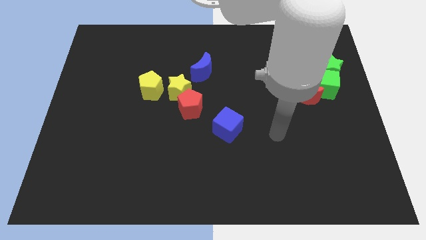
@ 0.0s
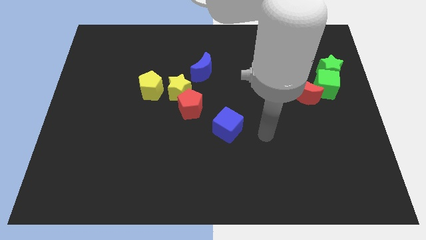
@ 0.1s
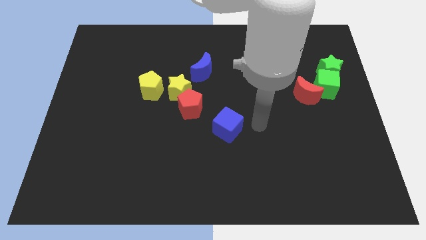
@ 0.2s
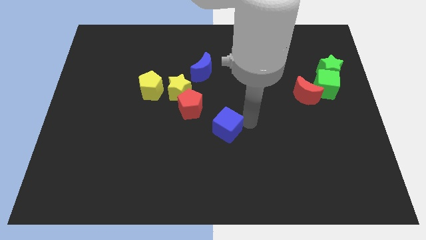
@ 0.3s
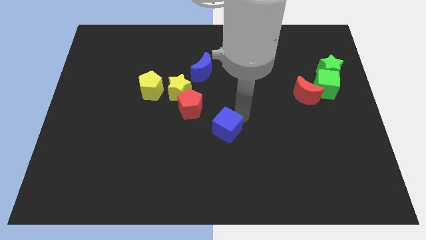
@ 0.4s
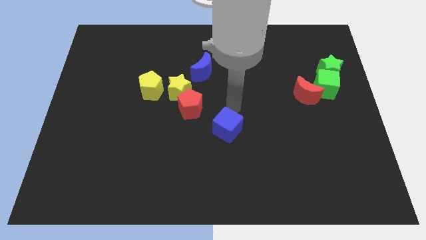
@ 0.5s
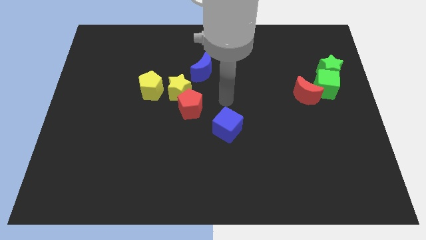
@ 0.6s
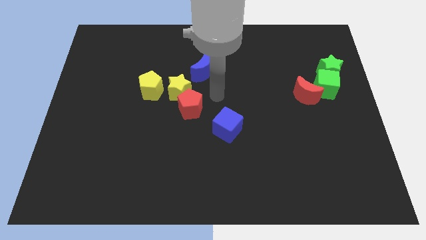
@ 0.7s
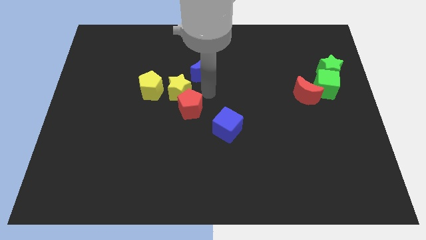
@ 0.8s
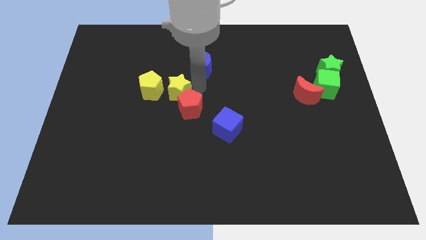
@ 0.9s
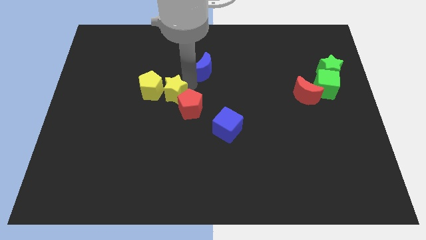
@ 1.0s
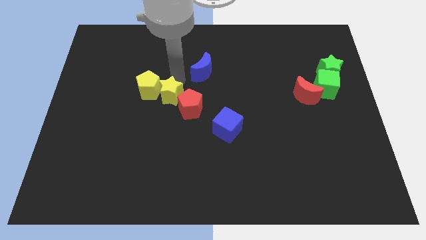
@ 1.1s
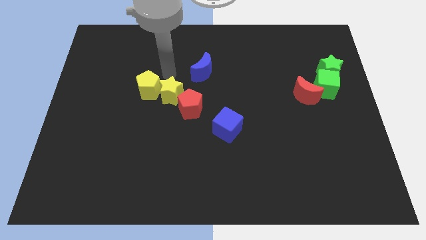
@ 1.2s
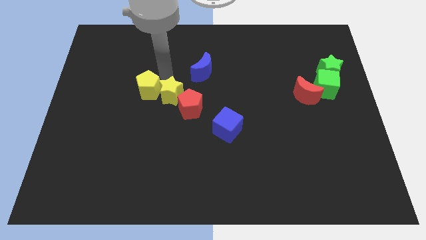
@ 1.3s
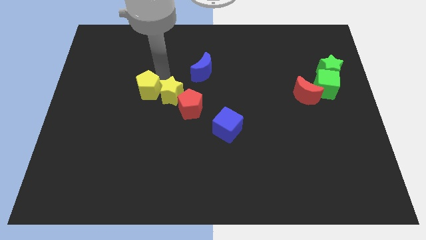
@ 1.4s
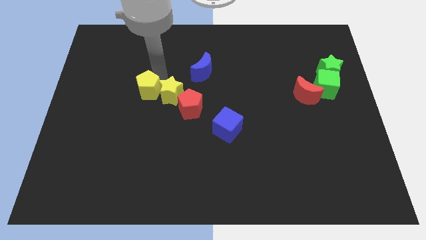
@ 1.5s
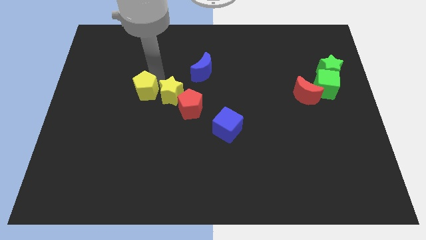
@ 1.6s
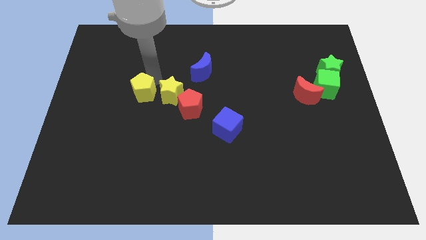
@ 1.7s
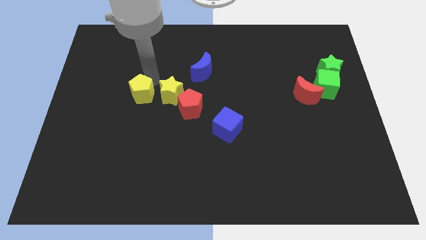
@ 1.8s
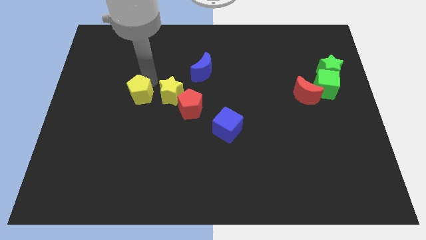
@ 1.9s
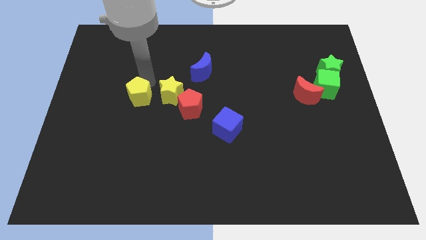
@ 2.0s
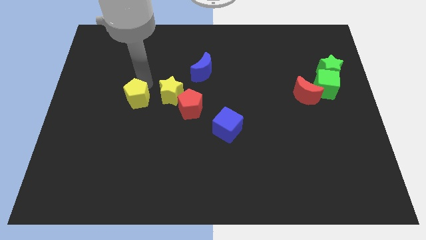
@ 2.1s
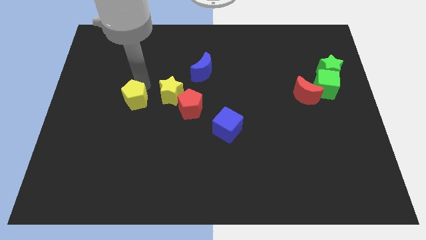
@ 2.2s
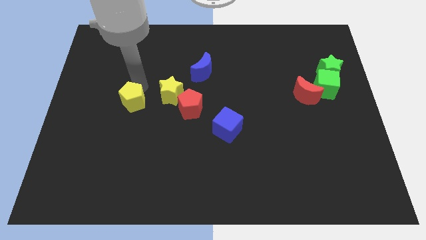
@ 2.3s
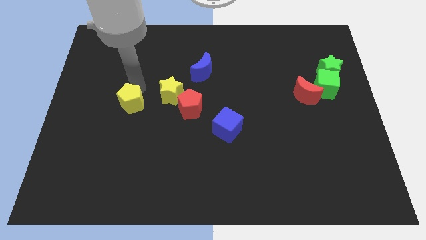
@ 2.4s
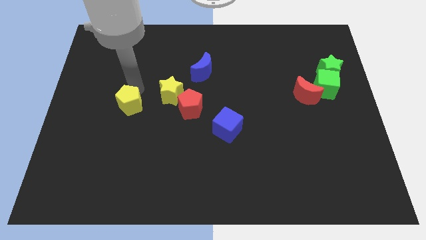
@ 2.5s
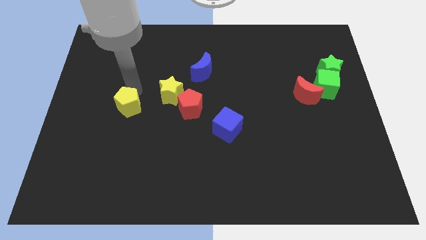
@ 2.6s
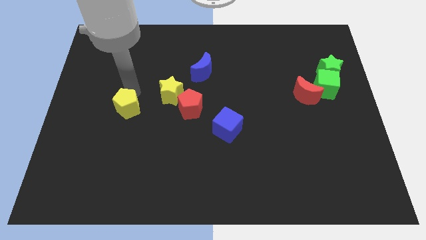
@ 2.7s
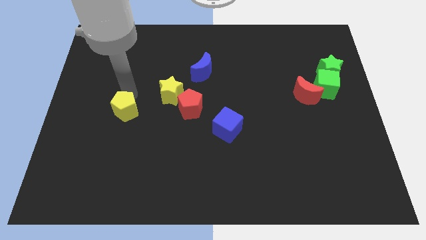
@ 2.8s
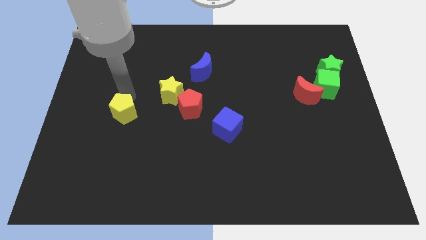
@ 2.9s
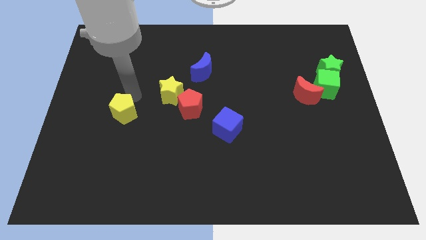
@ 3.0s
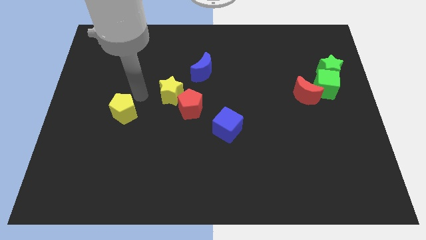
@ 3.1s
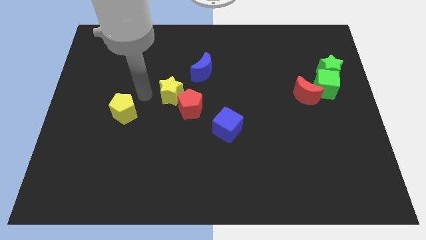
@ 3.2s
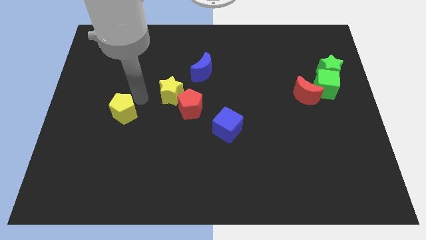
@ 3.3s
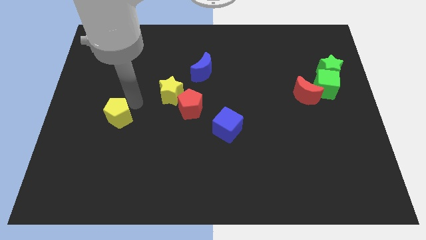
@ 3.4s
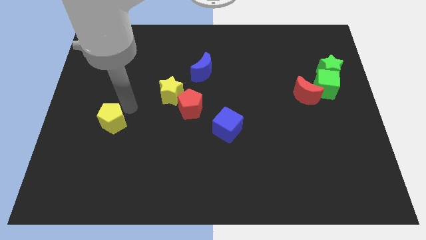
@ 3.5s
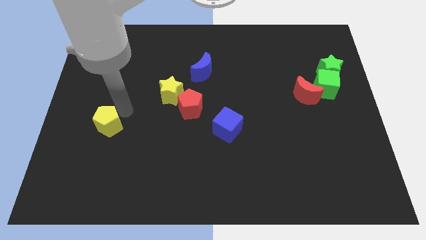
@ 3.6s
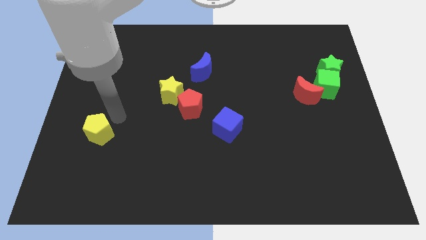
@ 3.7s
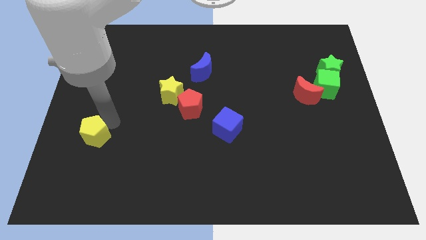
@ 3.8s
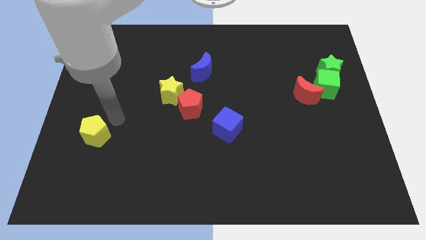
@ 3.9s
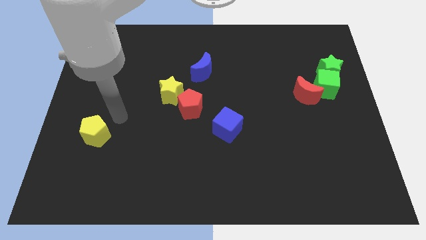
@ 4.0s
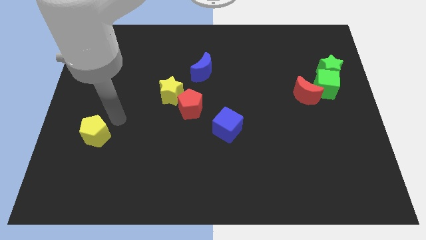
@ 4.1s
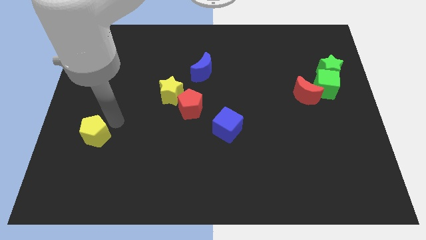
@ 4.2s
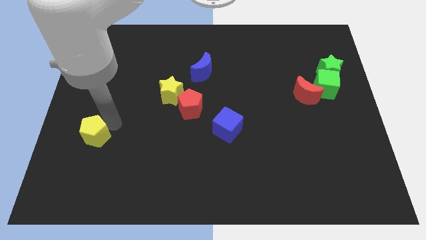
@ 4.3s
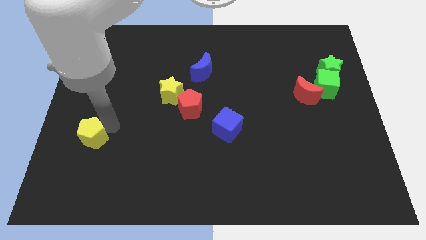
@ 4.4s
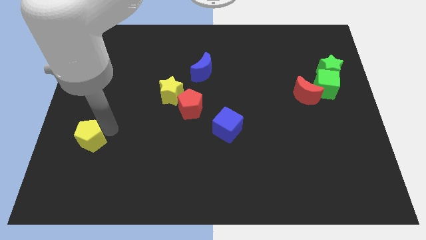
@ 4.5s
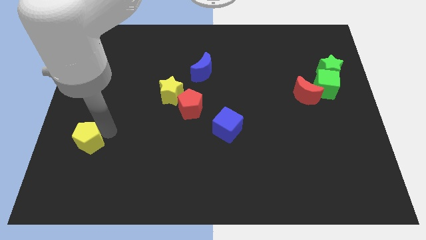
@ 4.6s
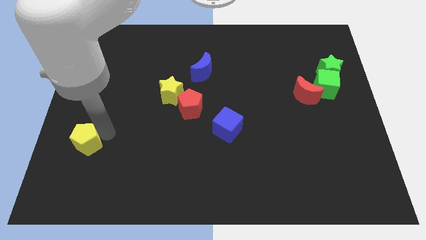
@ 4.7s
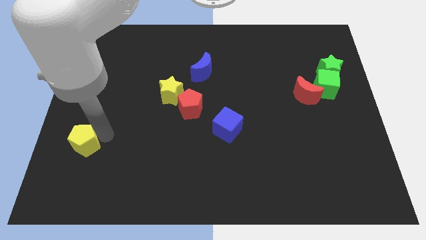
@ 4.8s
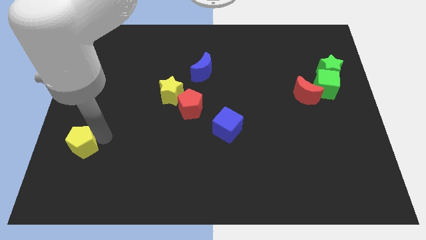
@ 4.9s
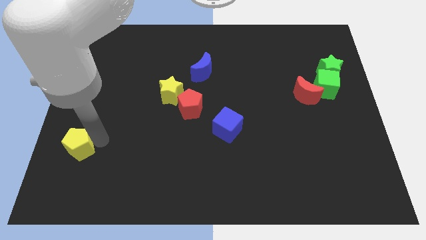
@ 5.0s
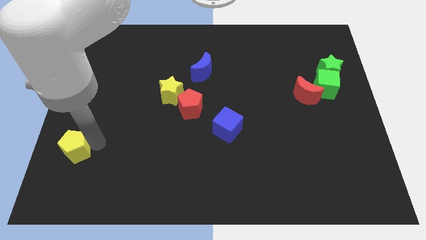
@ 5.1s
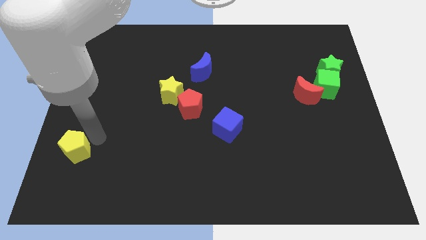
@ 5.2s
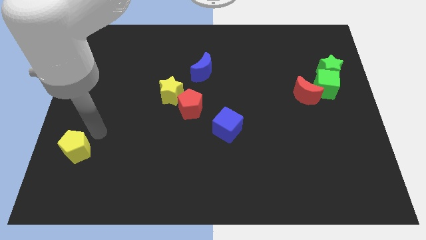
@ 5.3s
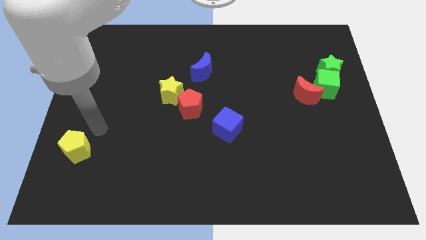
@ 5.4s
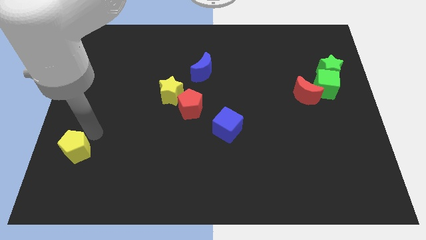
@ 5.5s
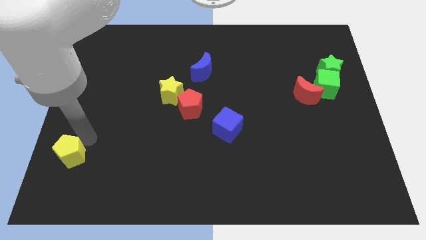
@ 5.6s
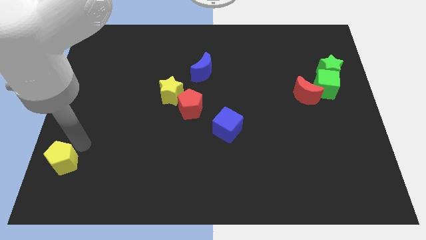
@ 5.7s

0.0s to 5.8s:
slide the yellow pentagon to the bottom left

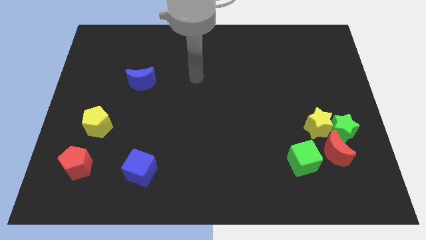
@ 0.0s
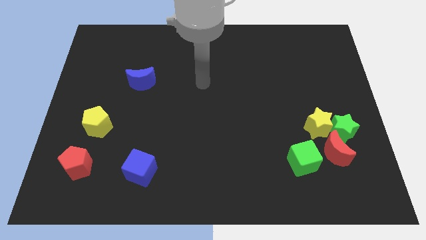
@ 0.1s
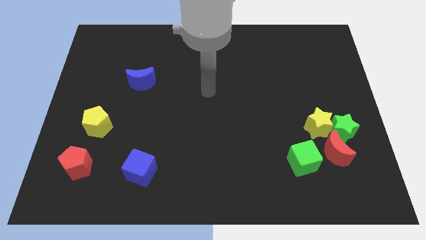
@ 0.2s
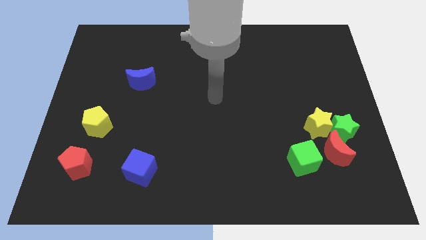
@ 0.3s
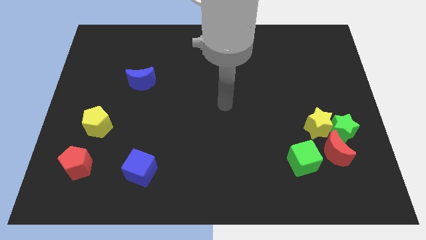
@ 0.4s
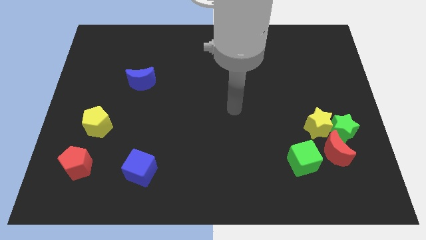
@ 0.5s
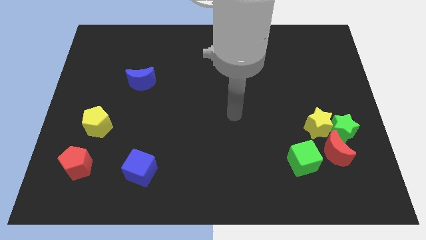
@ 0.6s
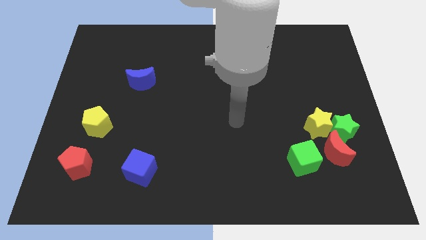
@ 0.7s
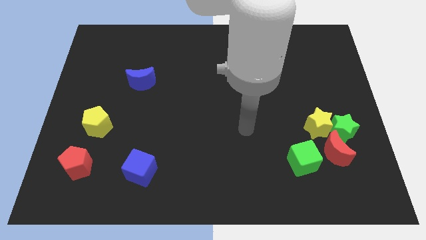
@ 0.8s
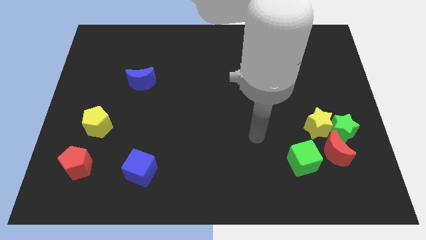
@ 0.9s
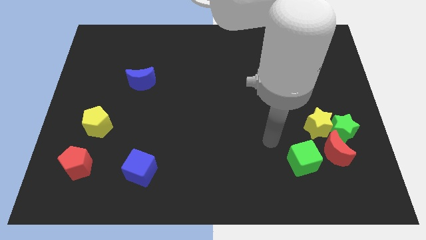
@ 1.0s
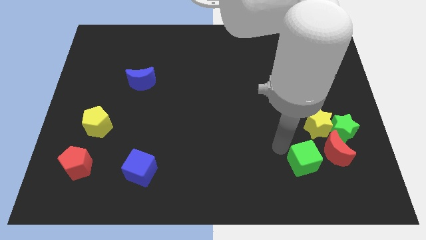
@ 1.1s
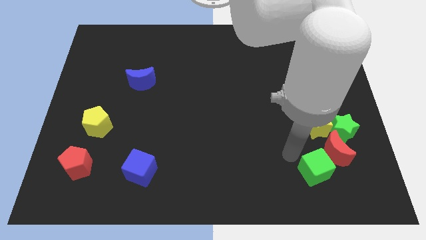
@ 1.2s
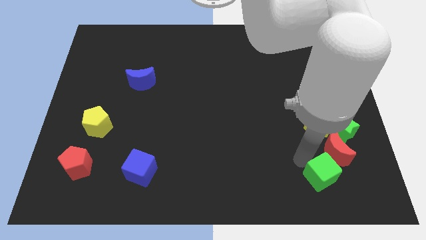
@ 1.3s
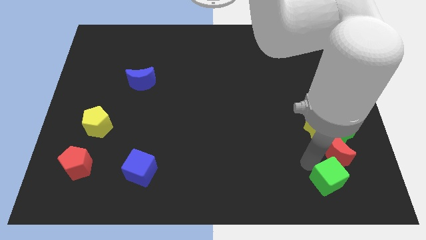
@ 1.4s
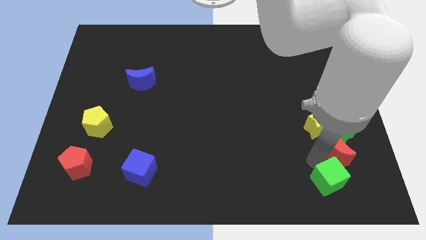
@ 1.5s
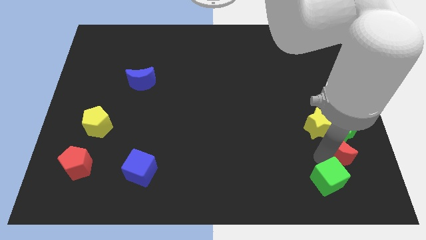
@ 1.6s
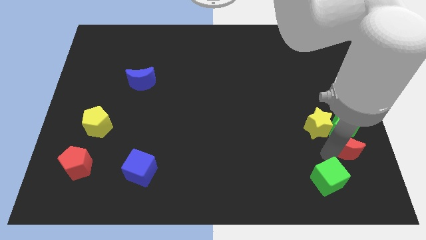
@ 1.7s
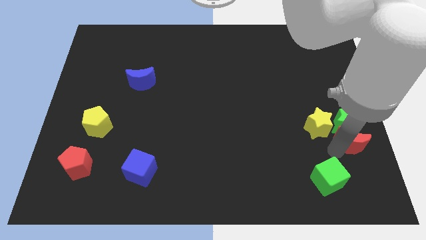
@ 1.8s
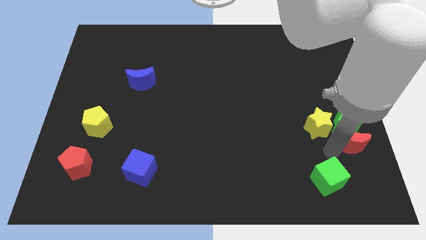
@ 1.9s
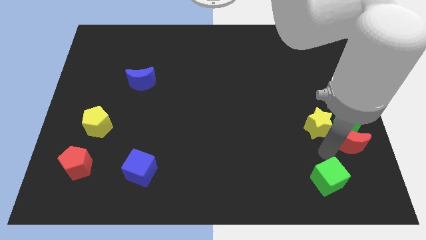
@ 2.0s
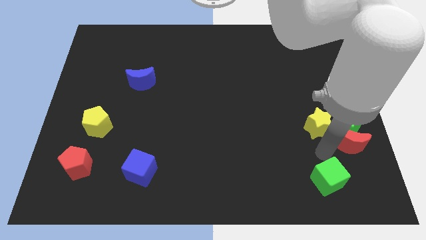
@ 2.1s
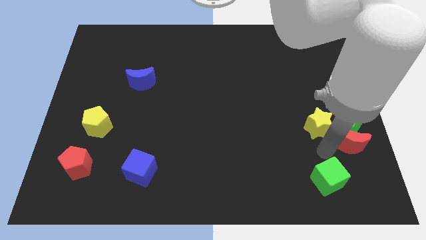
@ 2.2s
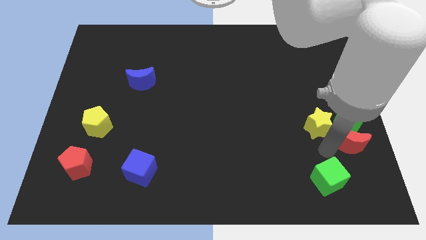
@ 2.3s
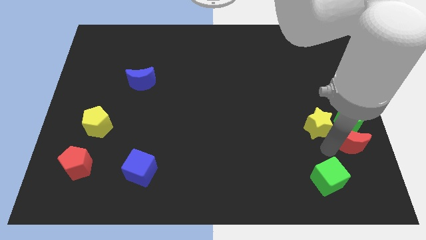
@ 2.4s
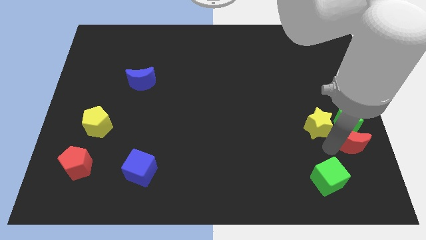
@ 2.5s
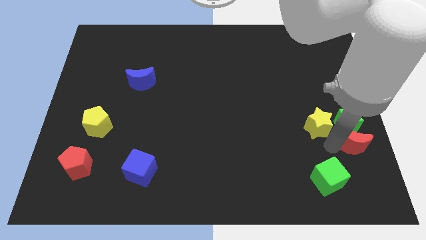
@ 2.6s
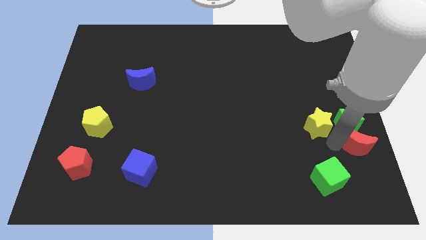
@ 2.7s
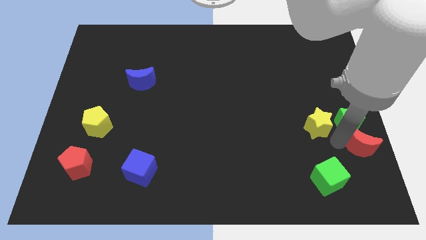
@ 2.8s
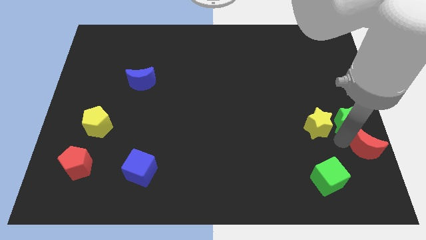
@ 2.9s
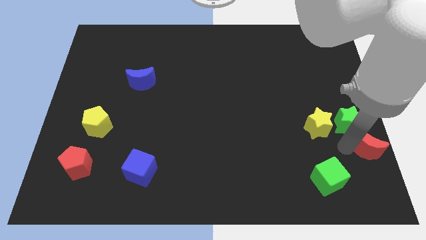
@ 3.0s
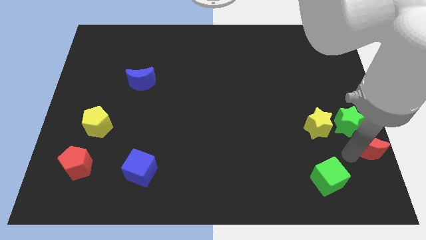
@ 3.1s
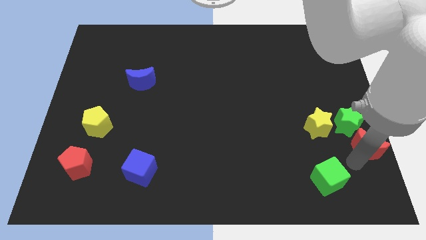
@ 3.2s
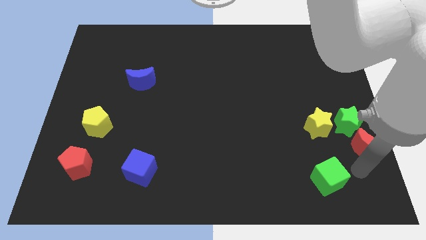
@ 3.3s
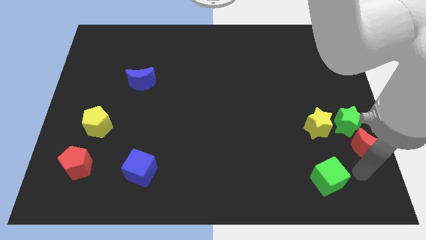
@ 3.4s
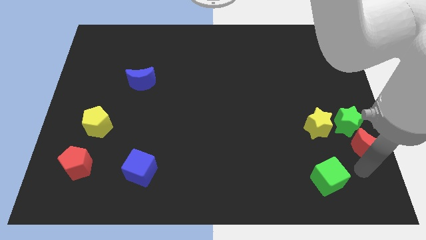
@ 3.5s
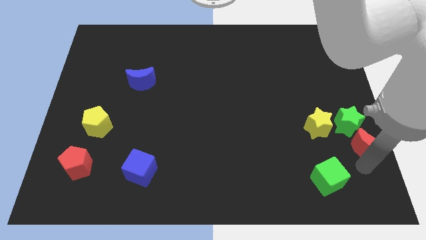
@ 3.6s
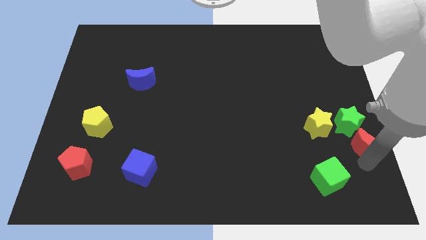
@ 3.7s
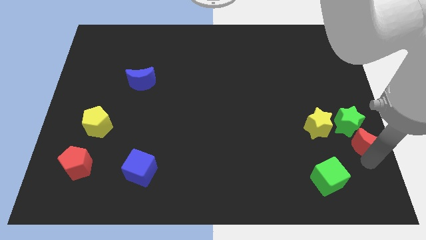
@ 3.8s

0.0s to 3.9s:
put the red moon to the right side of the board
